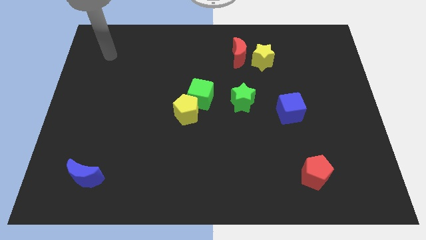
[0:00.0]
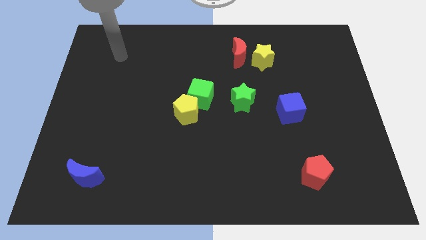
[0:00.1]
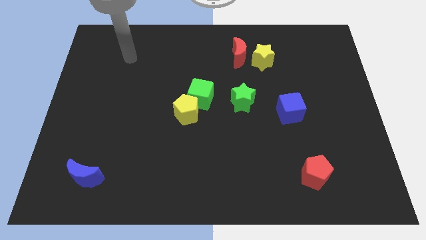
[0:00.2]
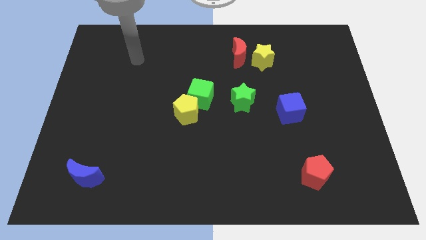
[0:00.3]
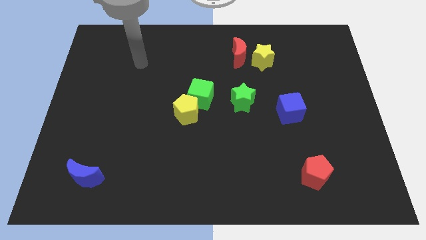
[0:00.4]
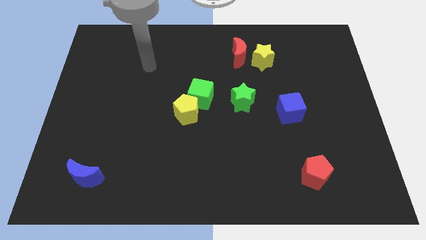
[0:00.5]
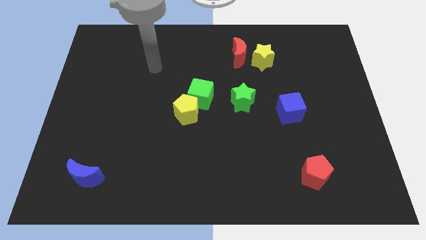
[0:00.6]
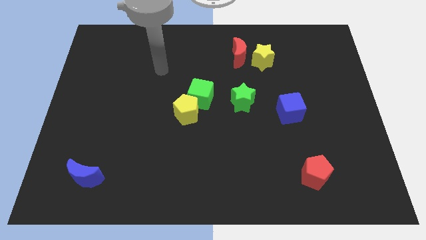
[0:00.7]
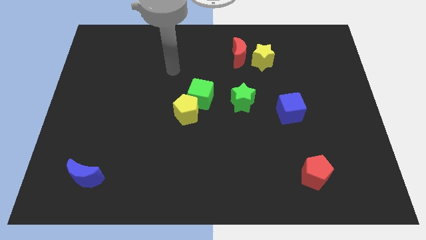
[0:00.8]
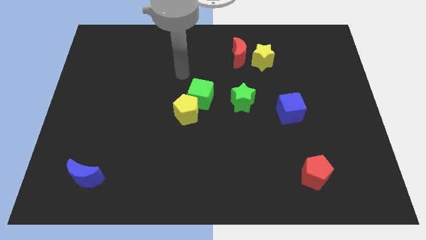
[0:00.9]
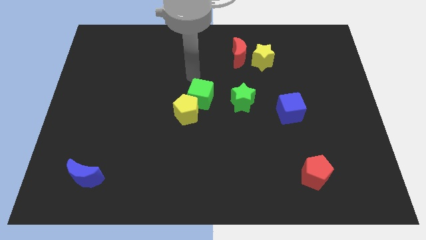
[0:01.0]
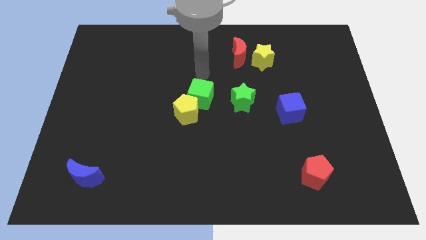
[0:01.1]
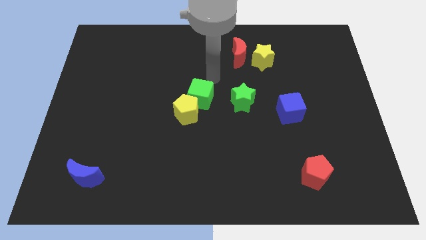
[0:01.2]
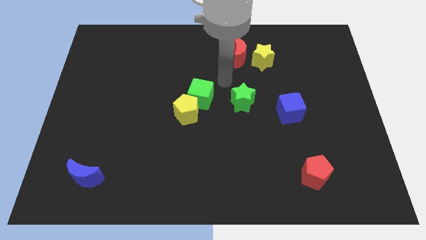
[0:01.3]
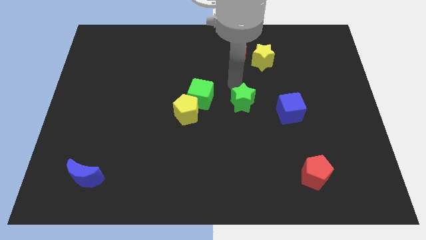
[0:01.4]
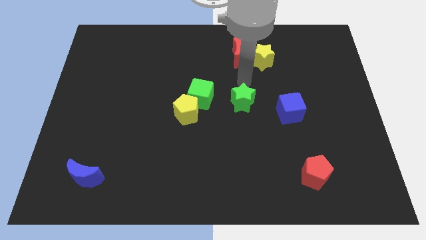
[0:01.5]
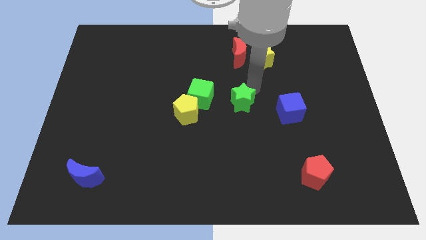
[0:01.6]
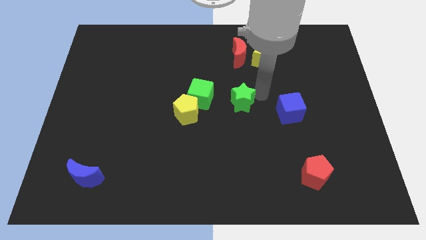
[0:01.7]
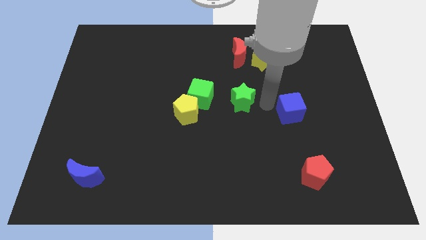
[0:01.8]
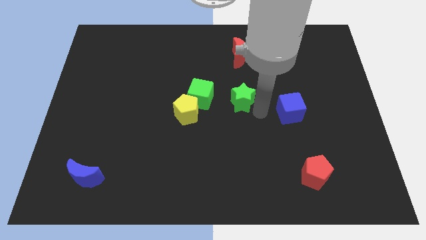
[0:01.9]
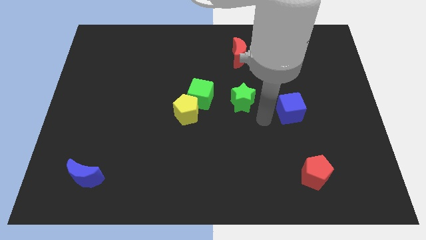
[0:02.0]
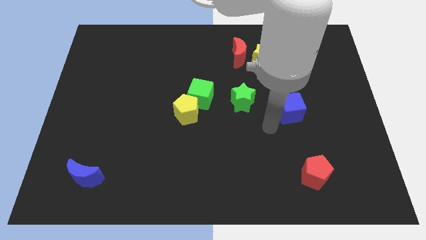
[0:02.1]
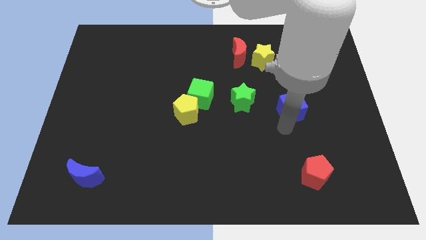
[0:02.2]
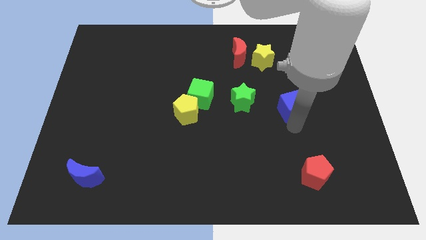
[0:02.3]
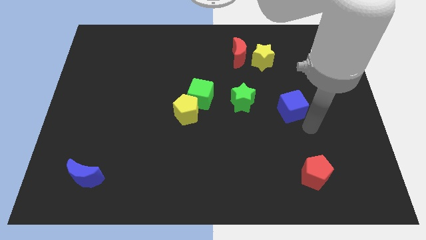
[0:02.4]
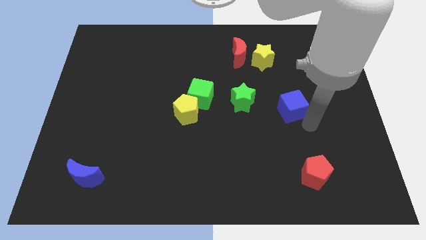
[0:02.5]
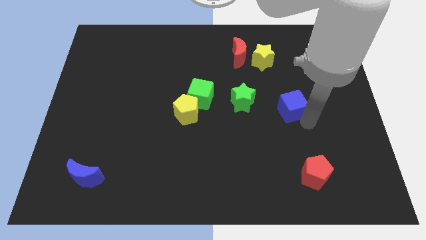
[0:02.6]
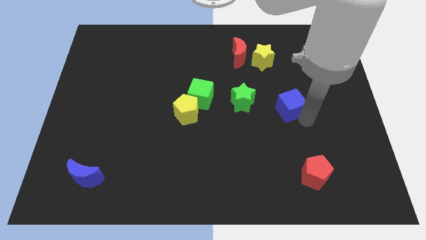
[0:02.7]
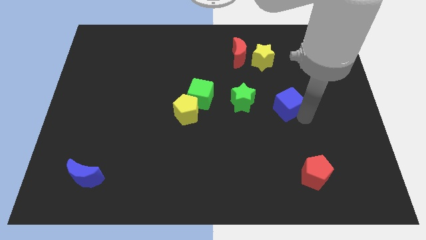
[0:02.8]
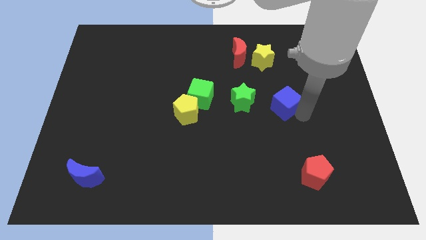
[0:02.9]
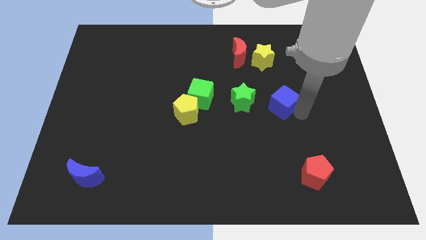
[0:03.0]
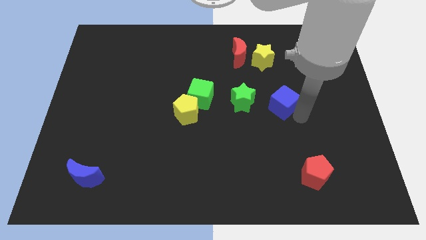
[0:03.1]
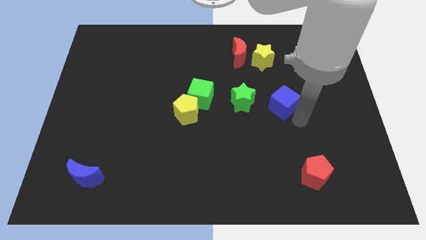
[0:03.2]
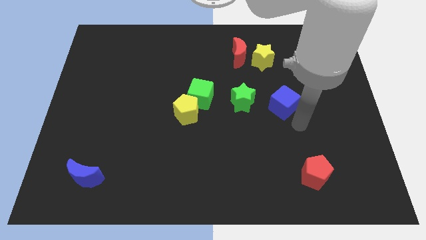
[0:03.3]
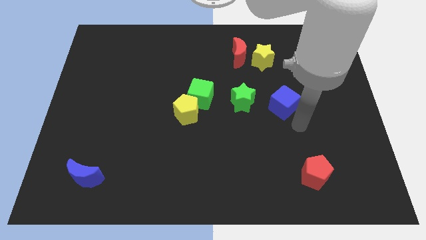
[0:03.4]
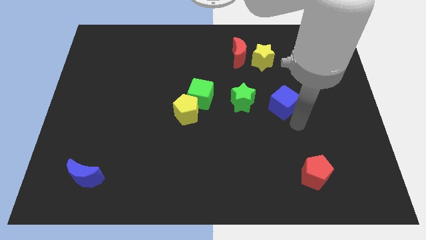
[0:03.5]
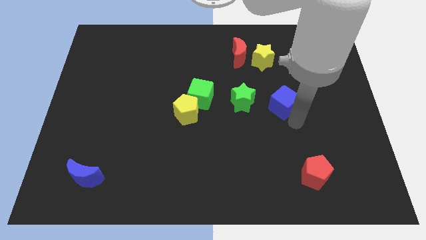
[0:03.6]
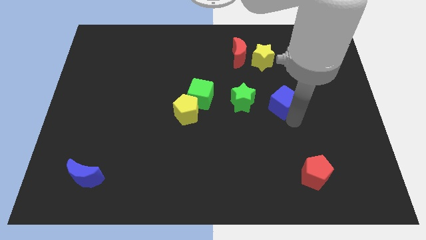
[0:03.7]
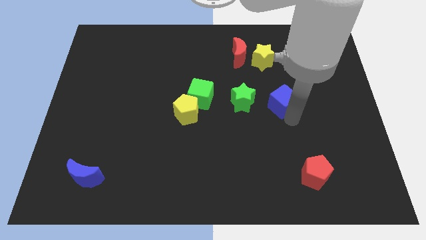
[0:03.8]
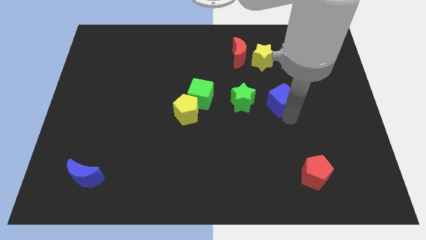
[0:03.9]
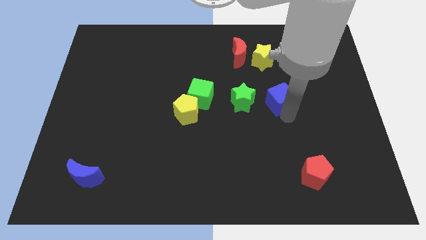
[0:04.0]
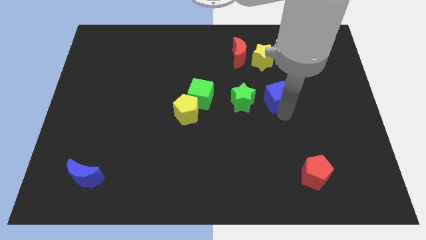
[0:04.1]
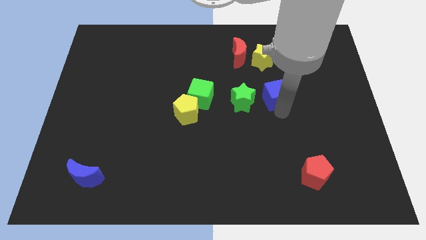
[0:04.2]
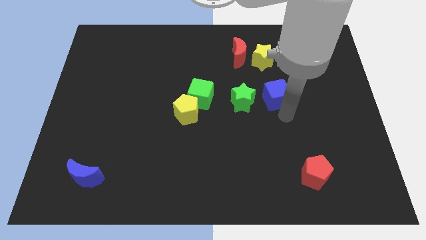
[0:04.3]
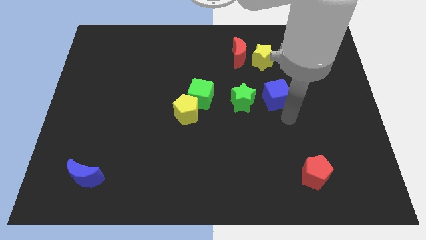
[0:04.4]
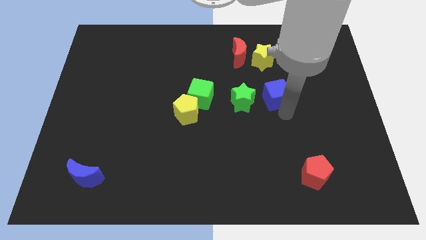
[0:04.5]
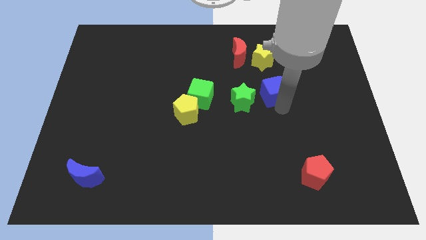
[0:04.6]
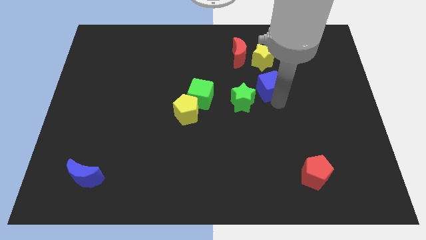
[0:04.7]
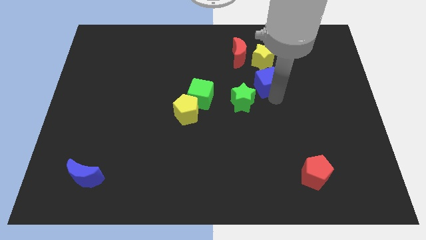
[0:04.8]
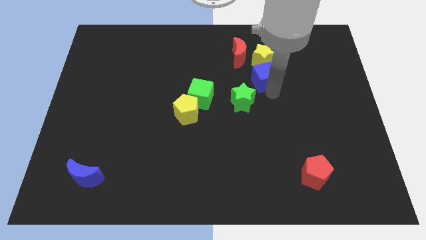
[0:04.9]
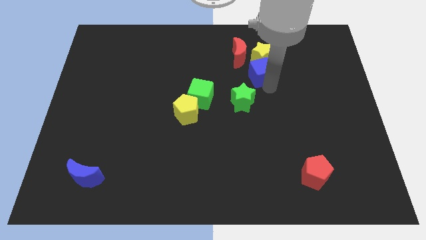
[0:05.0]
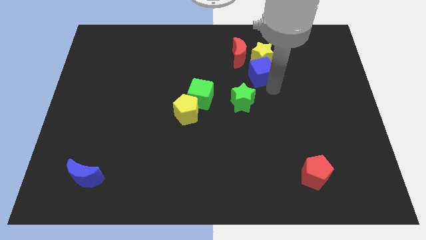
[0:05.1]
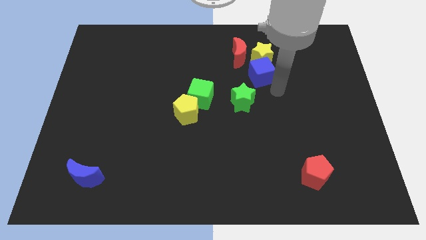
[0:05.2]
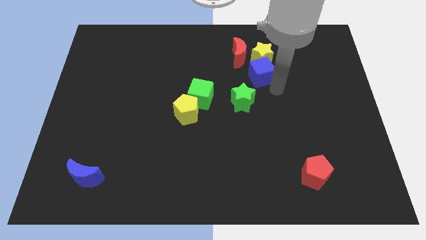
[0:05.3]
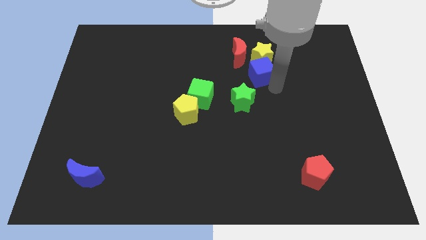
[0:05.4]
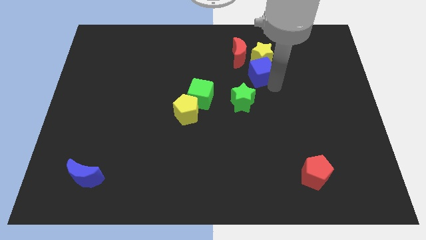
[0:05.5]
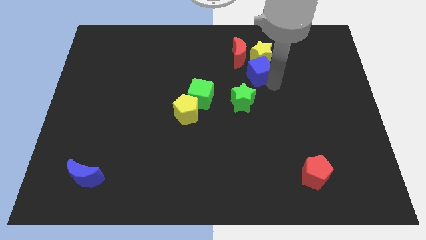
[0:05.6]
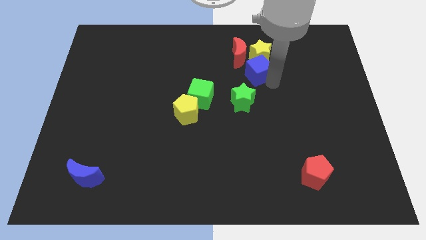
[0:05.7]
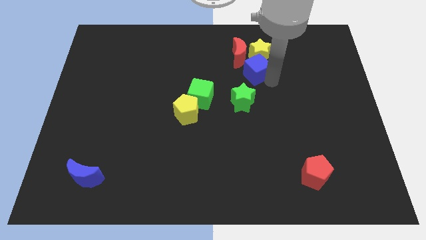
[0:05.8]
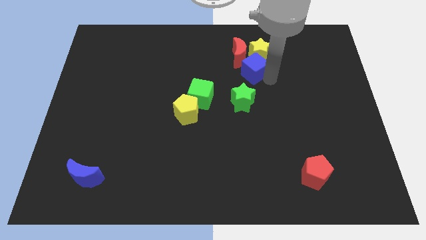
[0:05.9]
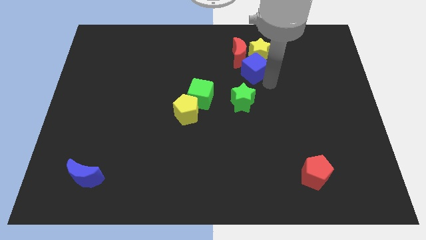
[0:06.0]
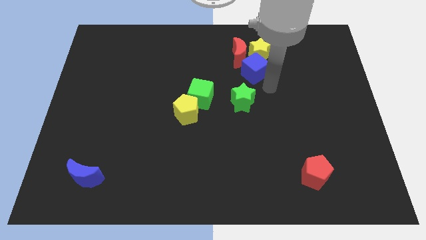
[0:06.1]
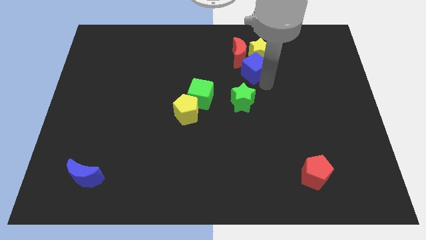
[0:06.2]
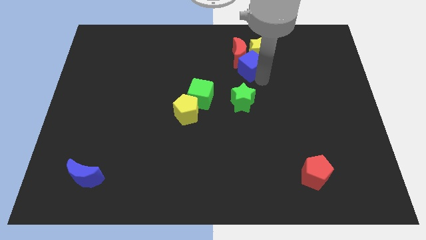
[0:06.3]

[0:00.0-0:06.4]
put the blue cube towards the red moon
